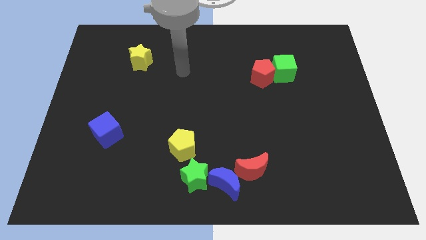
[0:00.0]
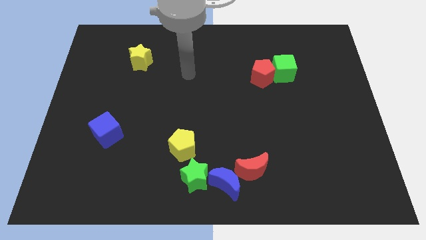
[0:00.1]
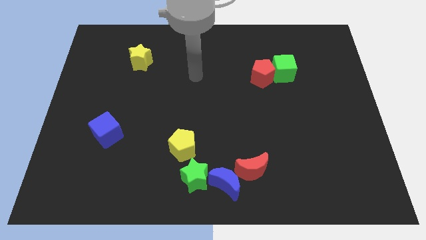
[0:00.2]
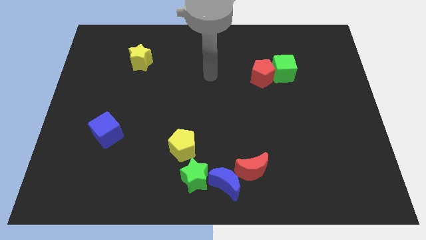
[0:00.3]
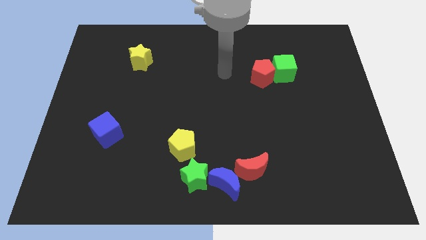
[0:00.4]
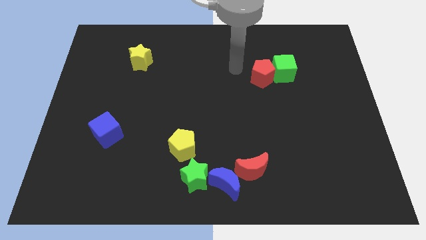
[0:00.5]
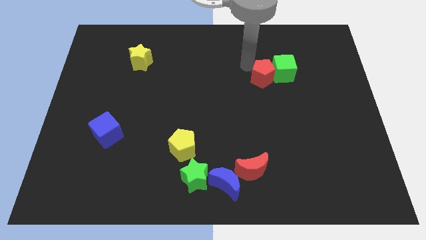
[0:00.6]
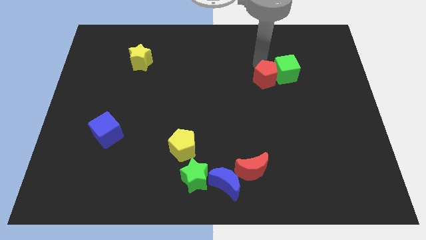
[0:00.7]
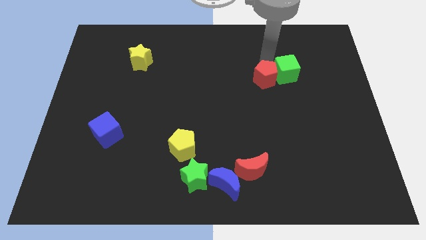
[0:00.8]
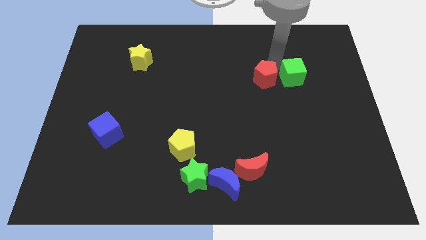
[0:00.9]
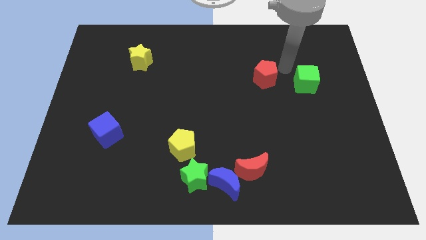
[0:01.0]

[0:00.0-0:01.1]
move the red pentagon away from the green cube

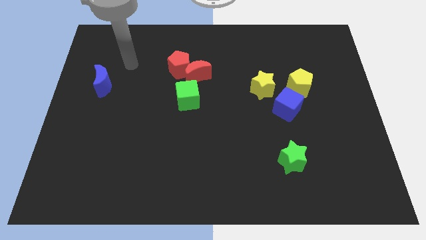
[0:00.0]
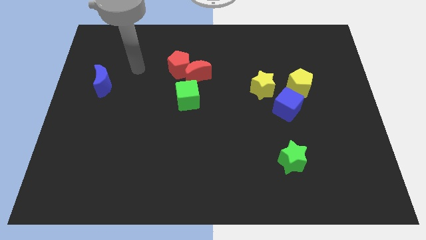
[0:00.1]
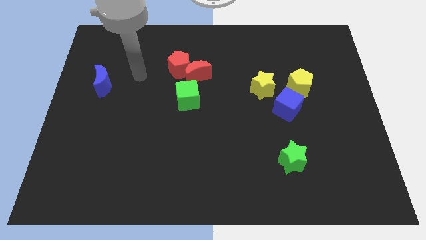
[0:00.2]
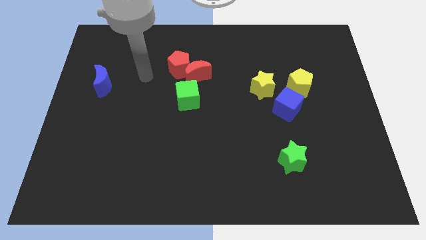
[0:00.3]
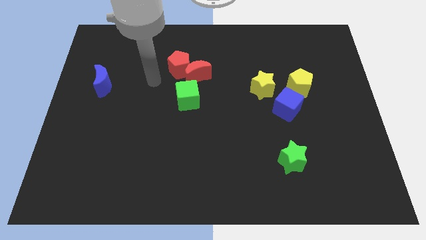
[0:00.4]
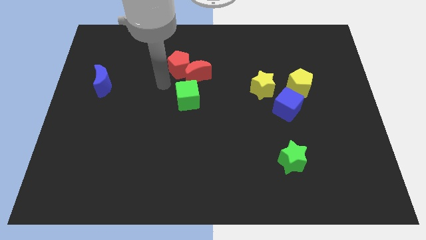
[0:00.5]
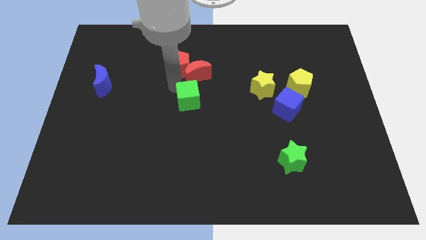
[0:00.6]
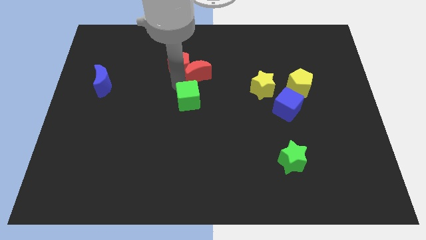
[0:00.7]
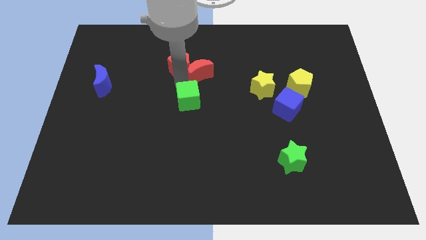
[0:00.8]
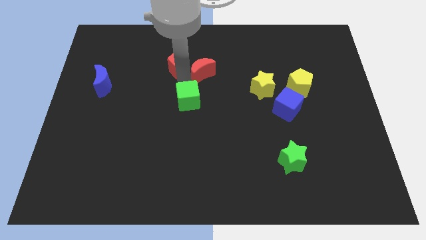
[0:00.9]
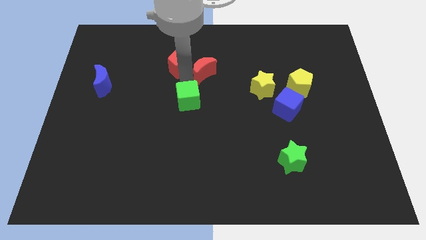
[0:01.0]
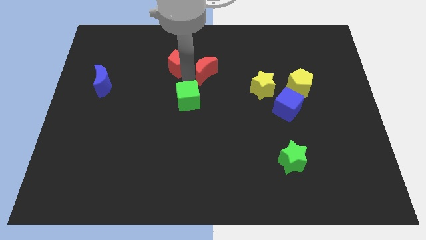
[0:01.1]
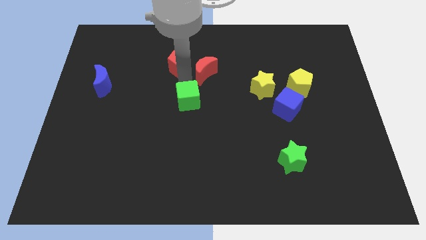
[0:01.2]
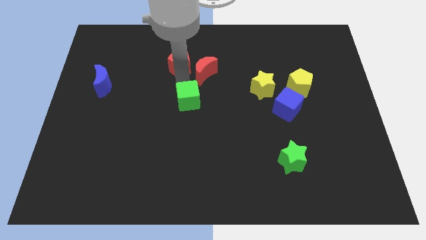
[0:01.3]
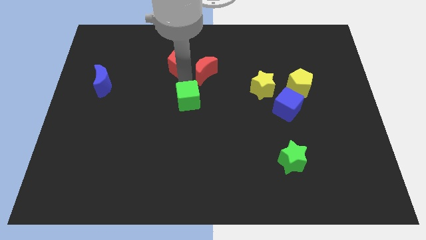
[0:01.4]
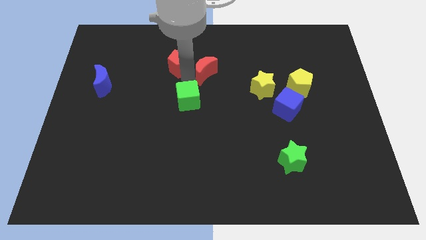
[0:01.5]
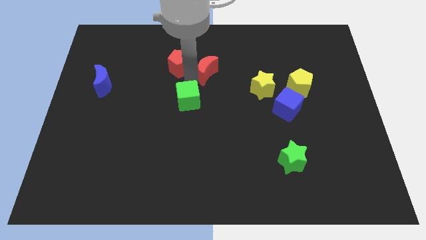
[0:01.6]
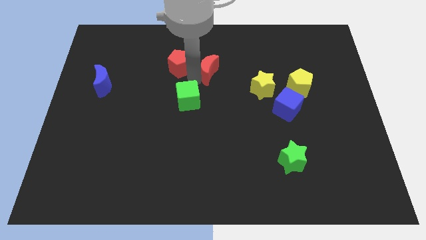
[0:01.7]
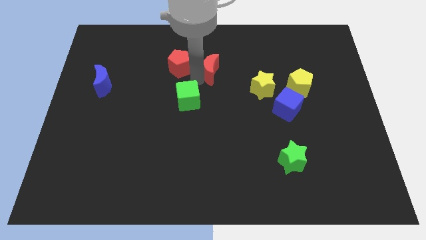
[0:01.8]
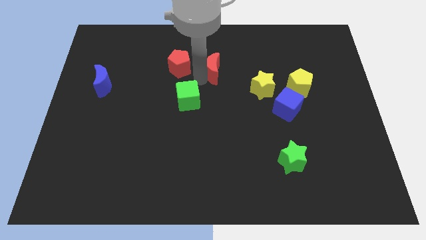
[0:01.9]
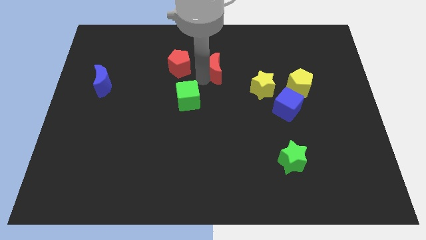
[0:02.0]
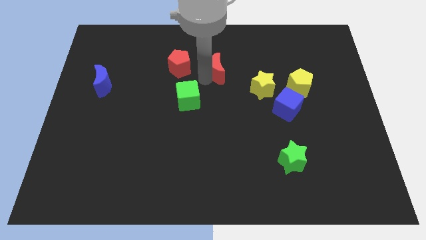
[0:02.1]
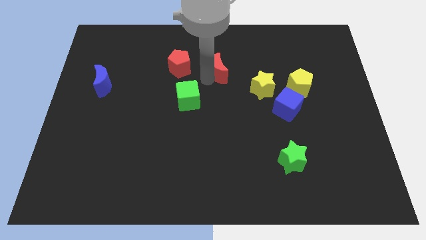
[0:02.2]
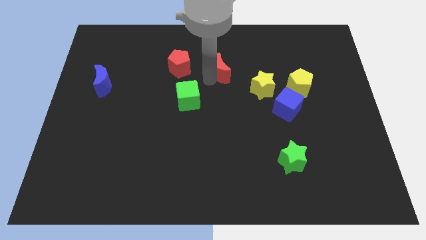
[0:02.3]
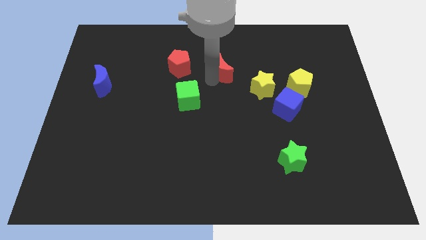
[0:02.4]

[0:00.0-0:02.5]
separate the red moon from the red pentagon and green cube

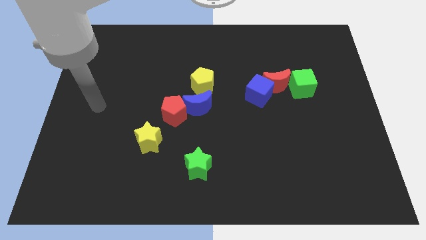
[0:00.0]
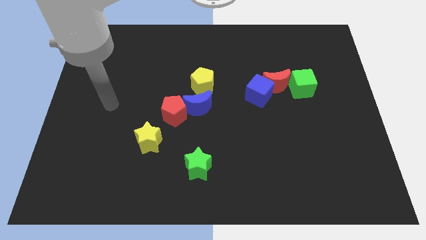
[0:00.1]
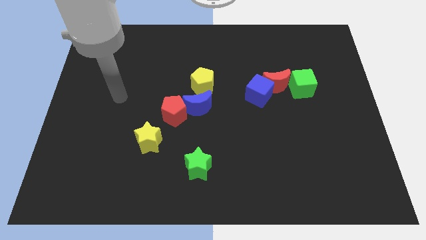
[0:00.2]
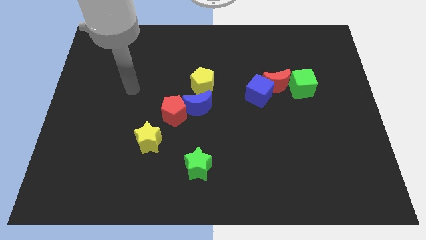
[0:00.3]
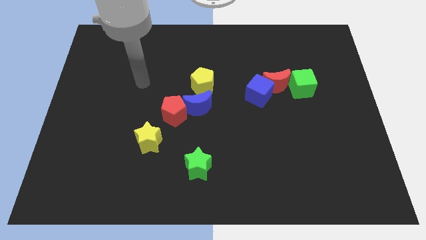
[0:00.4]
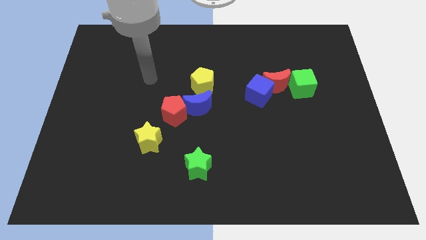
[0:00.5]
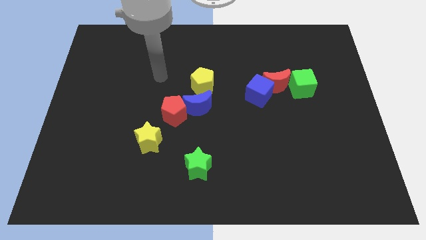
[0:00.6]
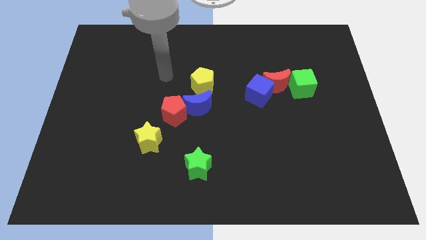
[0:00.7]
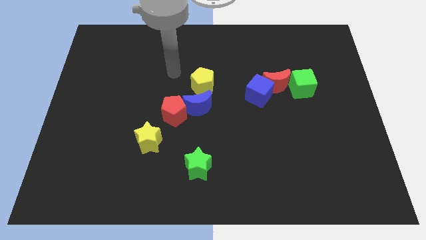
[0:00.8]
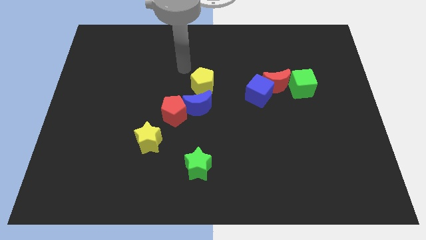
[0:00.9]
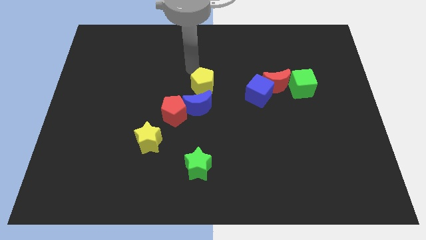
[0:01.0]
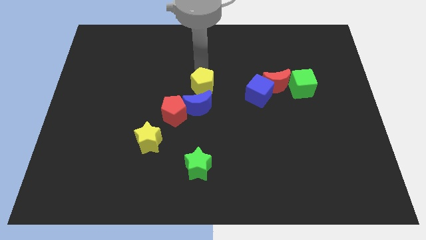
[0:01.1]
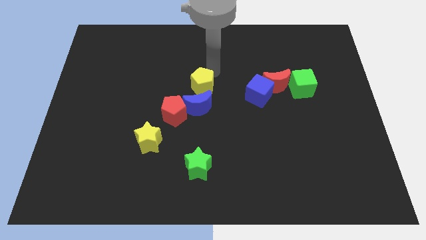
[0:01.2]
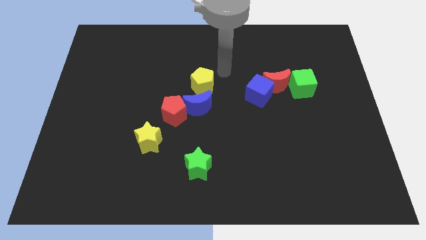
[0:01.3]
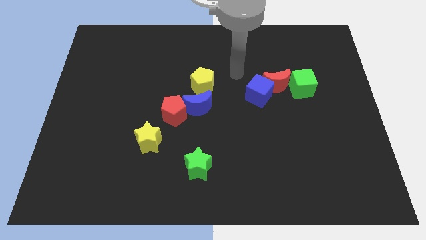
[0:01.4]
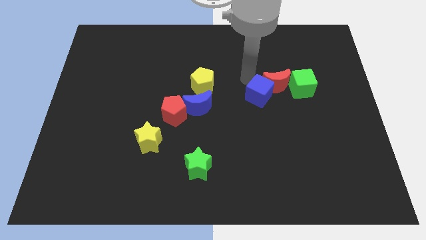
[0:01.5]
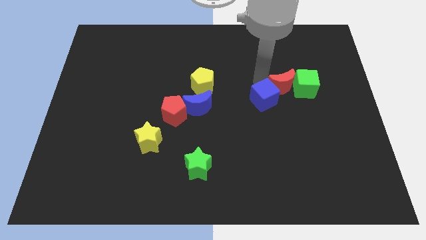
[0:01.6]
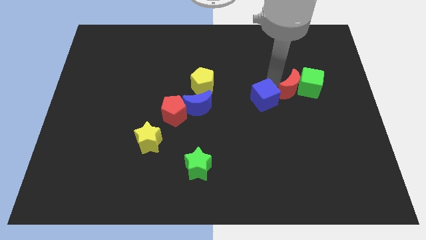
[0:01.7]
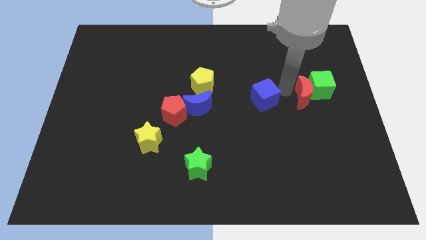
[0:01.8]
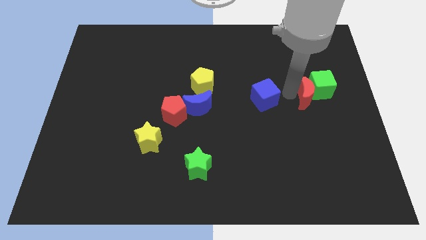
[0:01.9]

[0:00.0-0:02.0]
separate the blue cube from the red moon

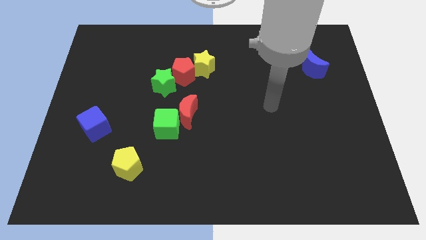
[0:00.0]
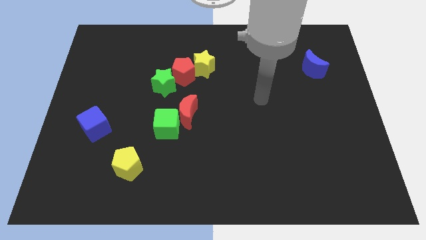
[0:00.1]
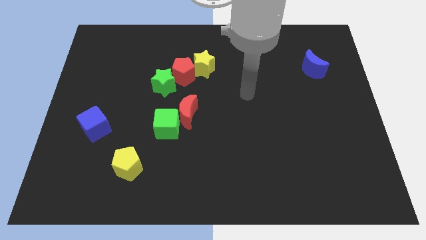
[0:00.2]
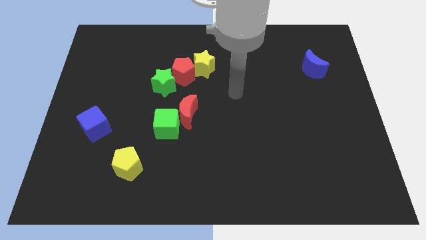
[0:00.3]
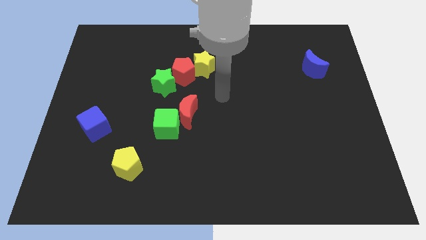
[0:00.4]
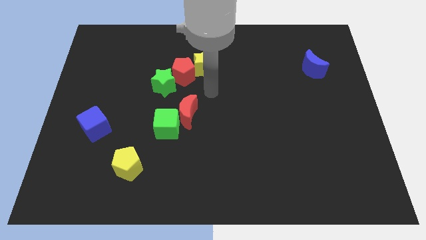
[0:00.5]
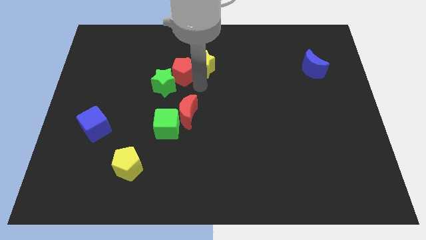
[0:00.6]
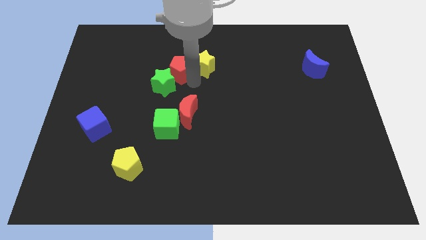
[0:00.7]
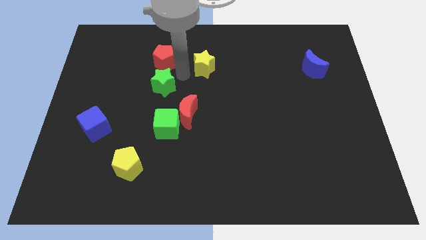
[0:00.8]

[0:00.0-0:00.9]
move the yellow star away from the red pentagon

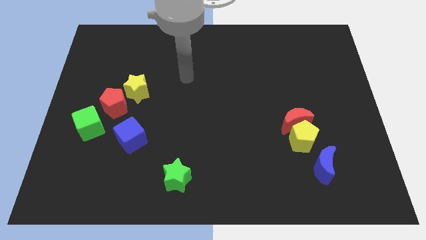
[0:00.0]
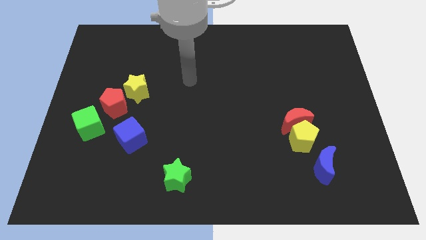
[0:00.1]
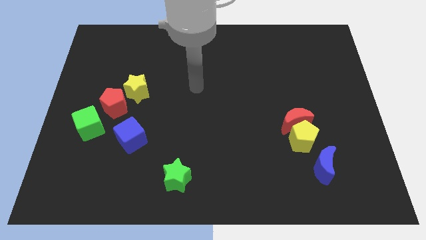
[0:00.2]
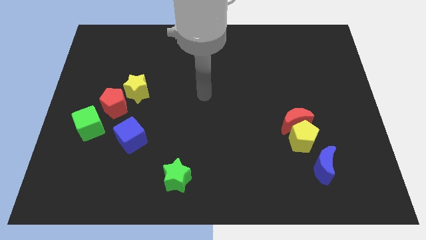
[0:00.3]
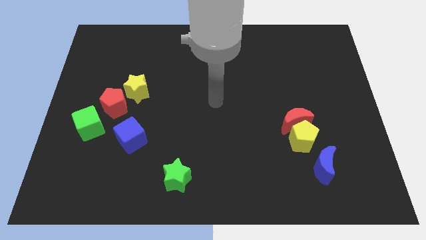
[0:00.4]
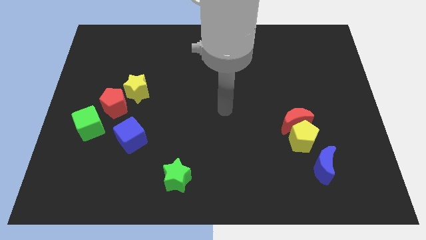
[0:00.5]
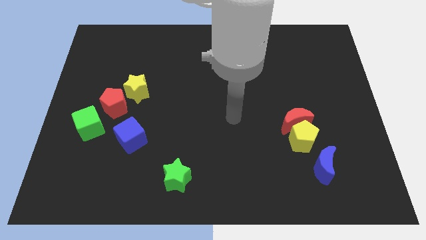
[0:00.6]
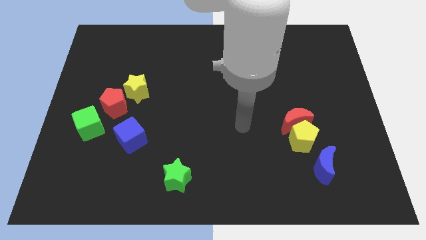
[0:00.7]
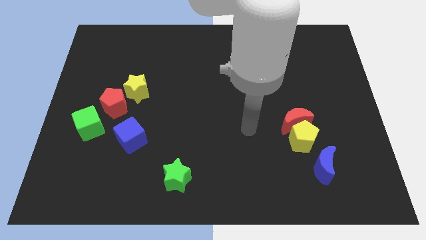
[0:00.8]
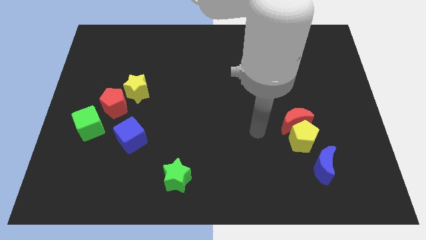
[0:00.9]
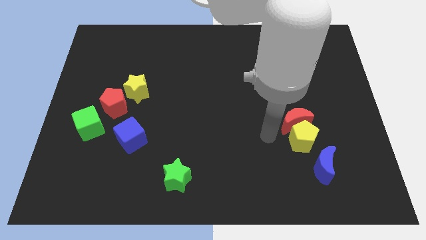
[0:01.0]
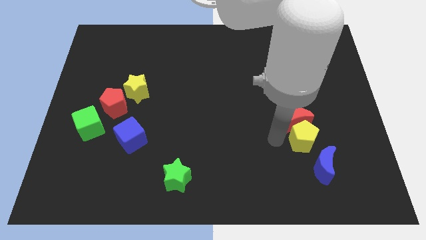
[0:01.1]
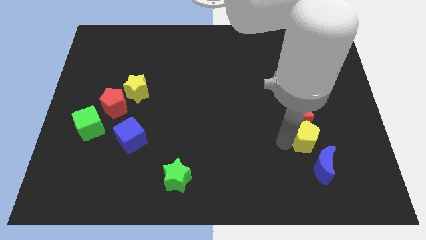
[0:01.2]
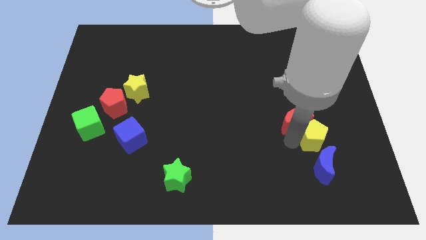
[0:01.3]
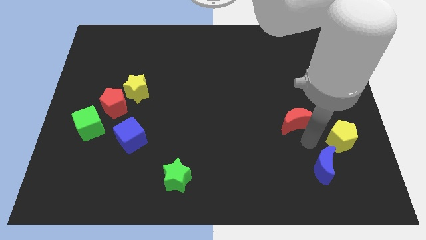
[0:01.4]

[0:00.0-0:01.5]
pull the red moon apart from the yellow pentagon

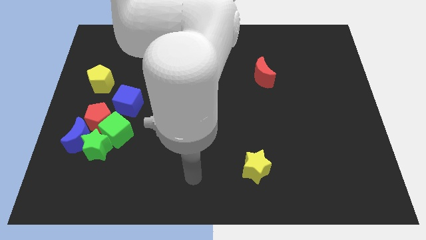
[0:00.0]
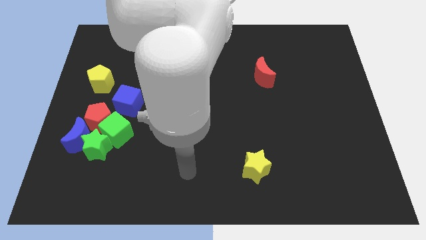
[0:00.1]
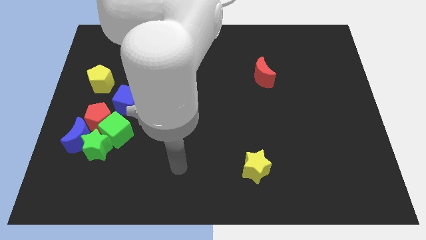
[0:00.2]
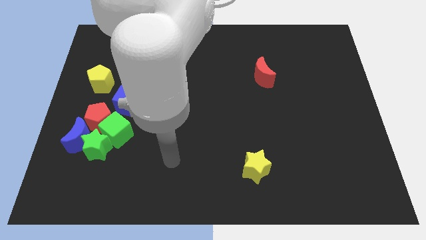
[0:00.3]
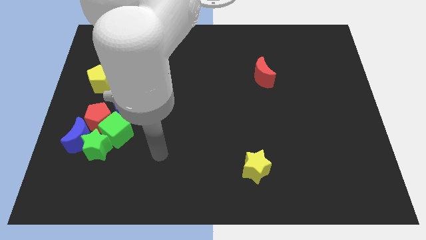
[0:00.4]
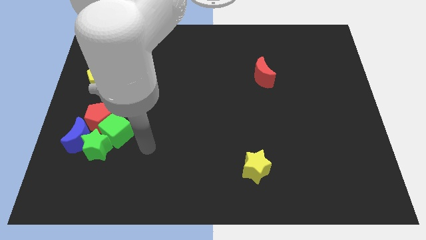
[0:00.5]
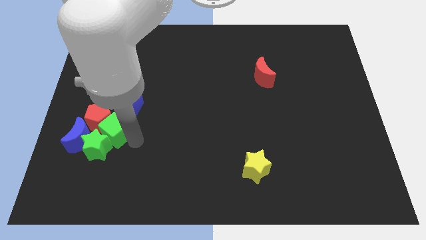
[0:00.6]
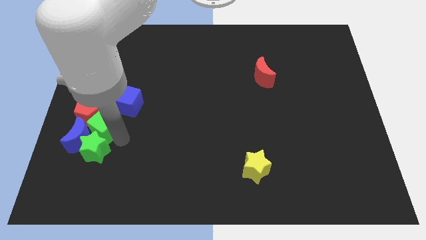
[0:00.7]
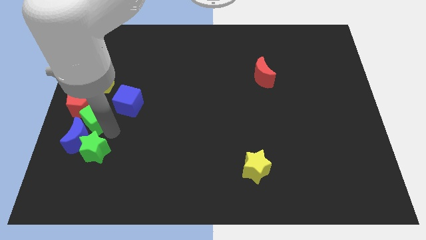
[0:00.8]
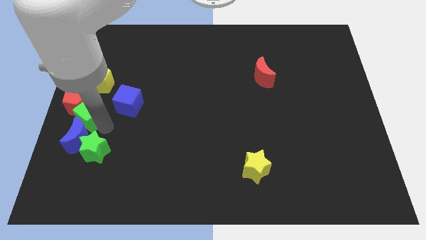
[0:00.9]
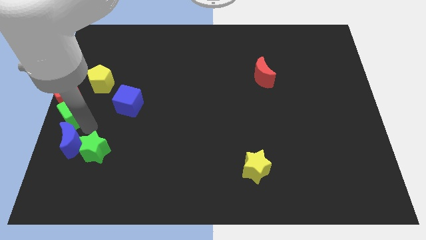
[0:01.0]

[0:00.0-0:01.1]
move the green star away from the blue moon, green cube, and red pentagon

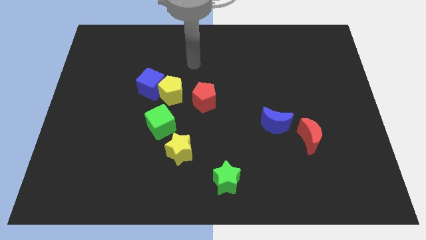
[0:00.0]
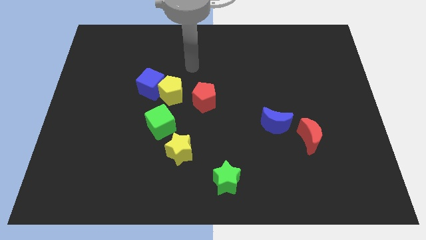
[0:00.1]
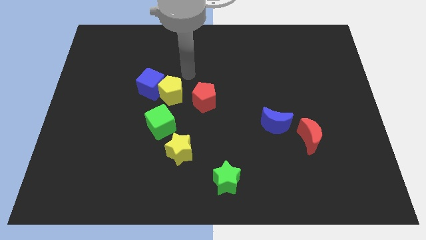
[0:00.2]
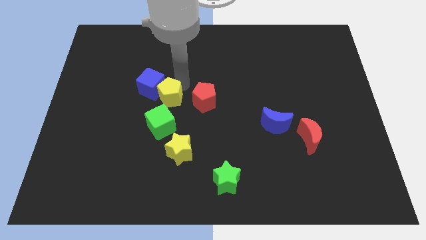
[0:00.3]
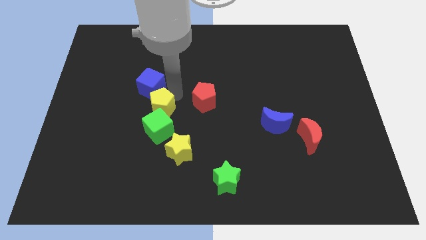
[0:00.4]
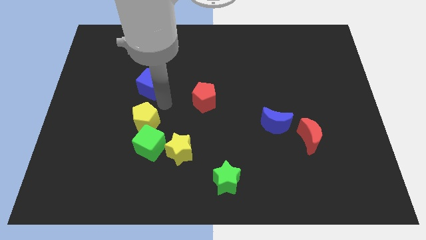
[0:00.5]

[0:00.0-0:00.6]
pull the blue cube apart from the yellow pentagon
